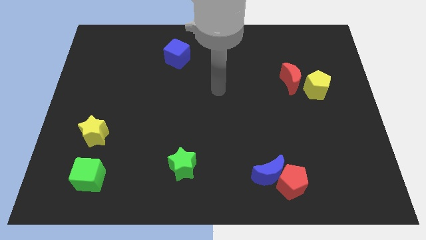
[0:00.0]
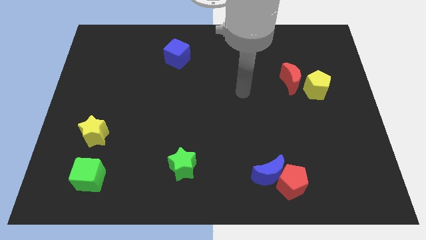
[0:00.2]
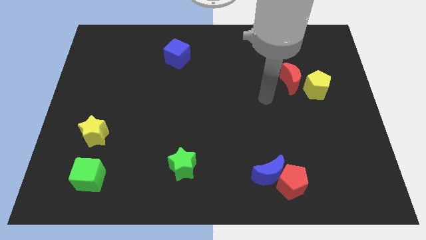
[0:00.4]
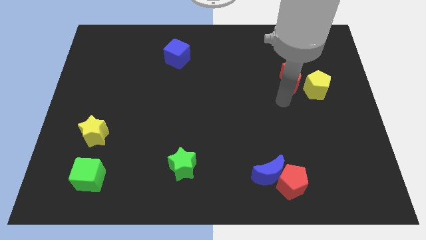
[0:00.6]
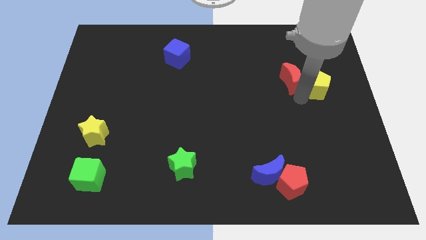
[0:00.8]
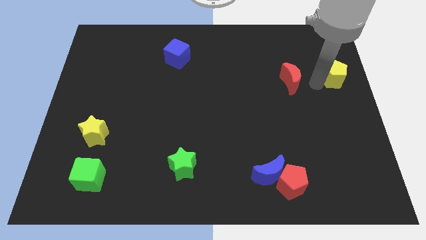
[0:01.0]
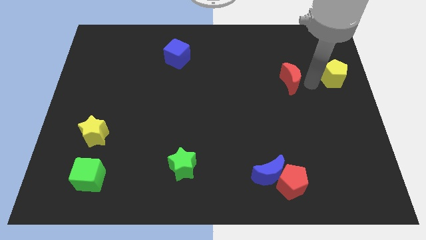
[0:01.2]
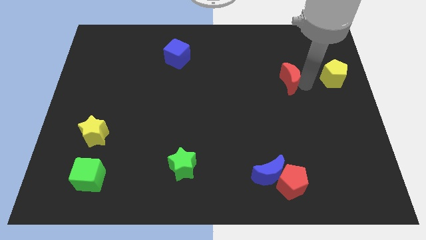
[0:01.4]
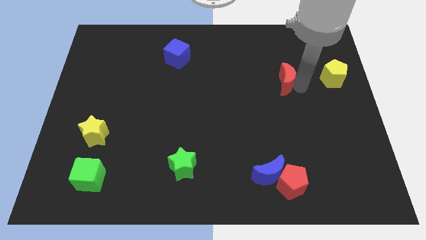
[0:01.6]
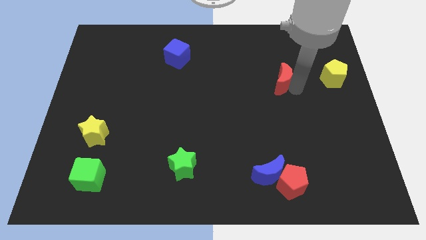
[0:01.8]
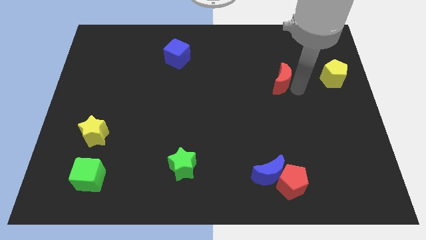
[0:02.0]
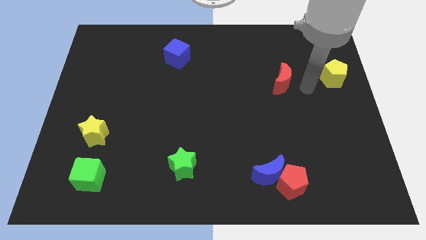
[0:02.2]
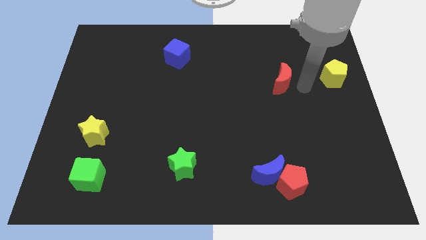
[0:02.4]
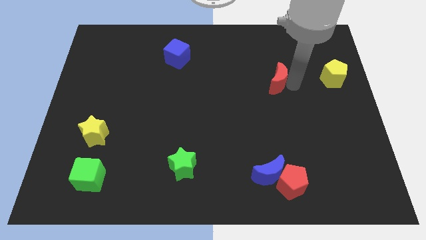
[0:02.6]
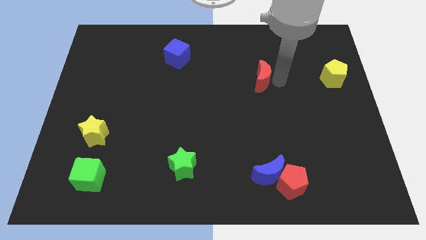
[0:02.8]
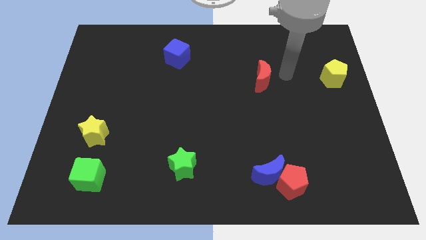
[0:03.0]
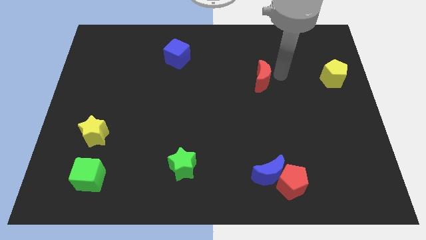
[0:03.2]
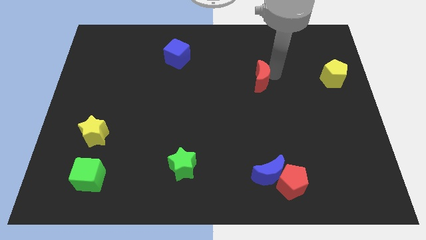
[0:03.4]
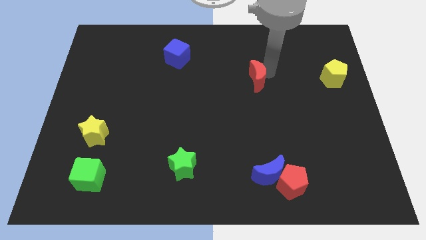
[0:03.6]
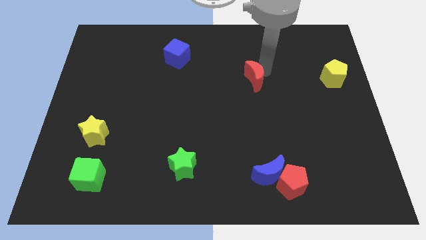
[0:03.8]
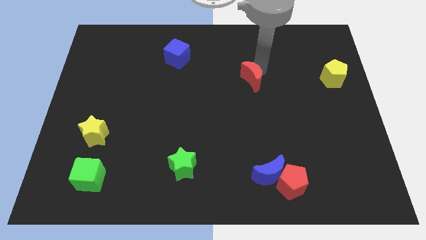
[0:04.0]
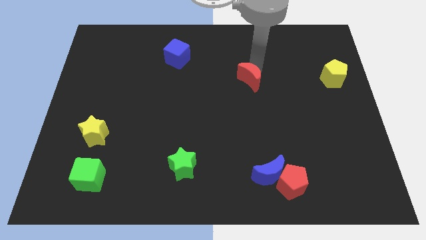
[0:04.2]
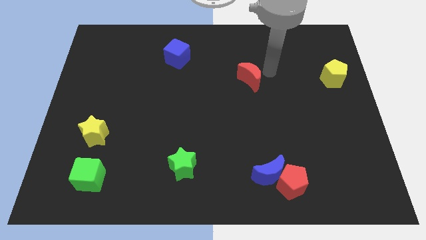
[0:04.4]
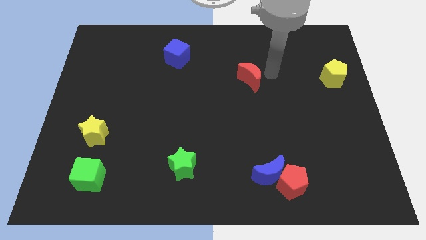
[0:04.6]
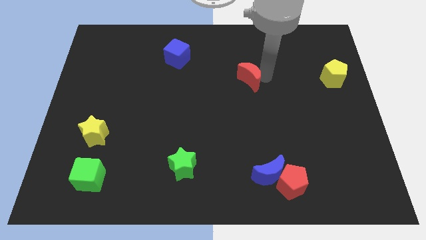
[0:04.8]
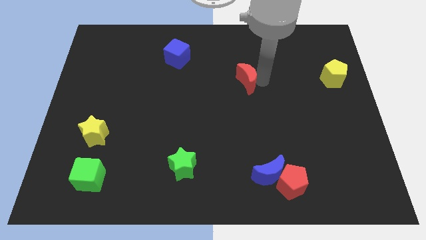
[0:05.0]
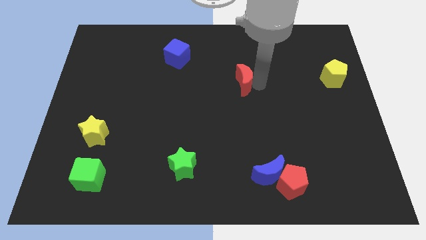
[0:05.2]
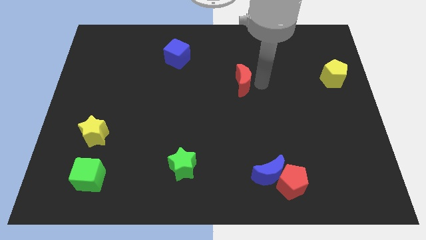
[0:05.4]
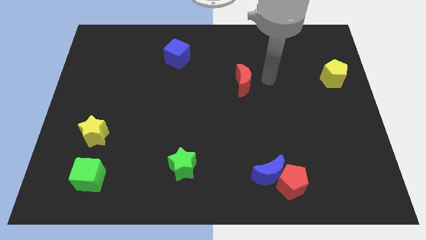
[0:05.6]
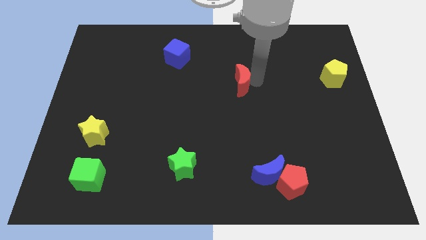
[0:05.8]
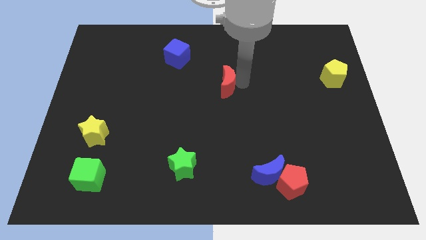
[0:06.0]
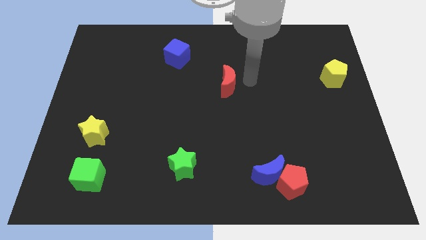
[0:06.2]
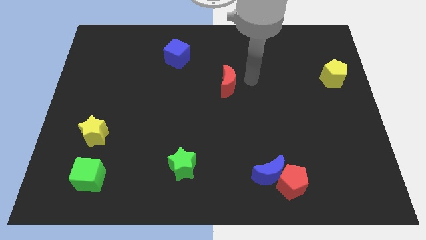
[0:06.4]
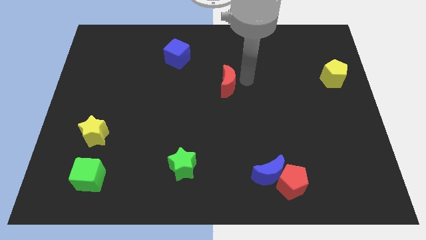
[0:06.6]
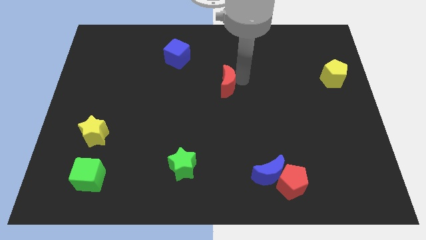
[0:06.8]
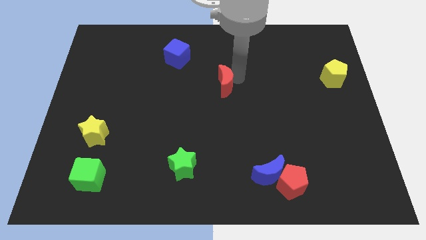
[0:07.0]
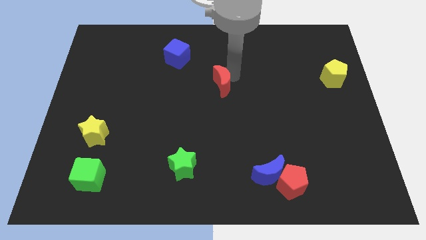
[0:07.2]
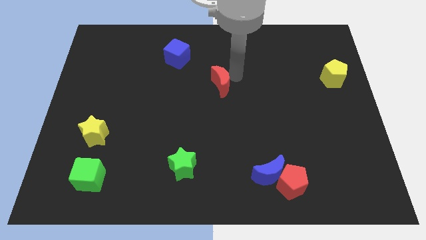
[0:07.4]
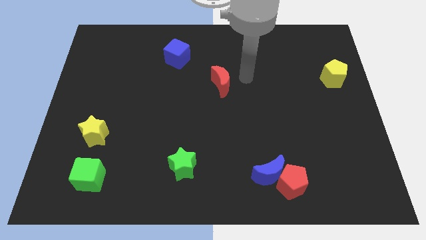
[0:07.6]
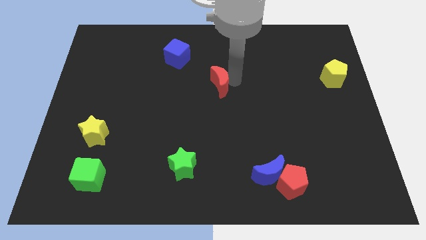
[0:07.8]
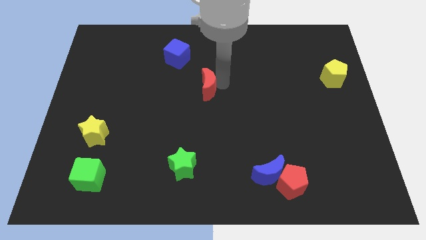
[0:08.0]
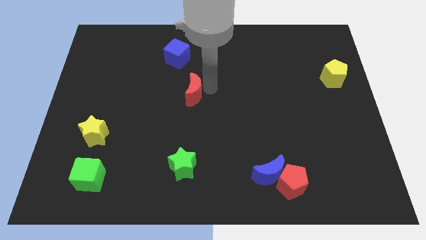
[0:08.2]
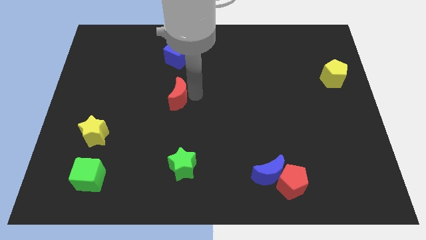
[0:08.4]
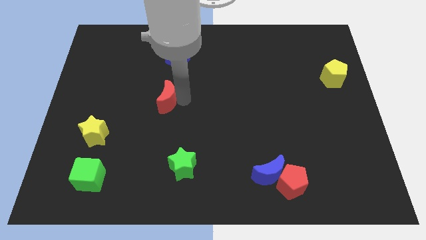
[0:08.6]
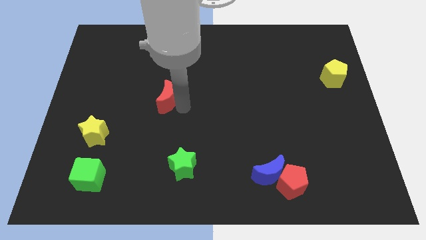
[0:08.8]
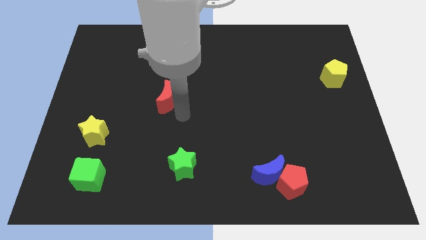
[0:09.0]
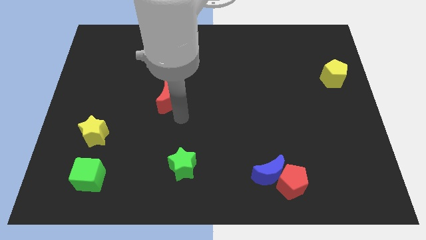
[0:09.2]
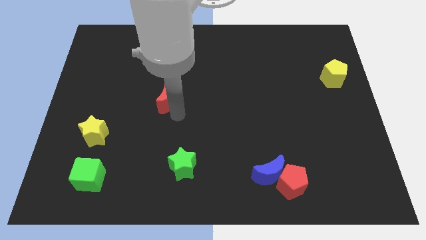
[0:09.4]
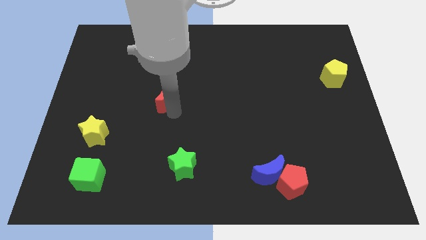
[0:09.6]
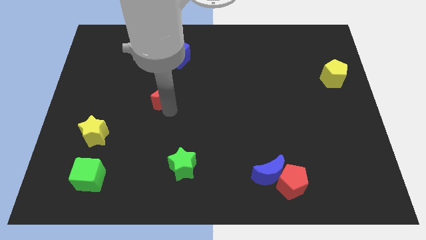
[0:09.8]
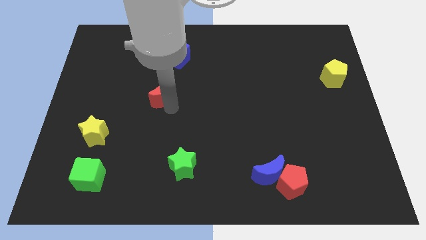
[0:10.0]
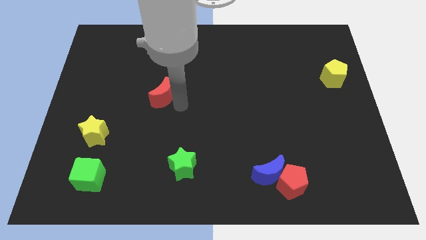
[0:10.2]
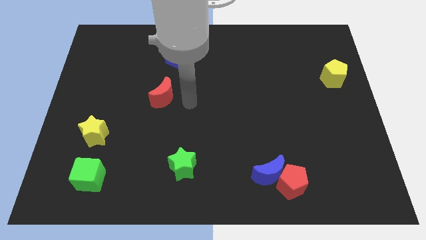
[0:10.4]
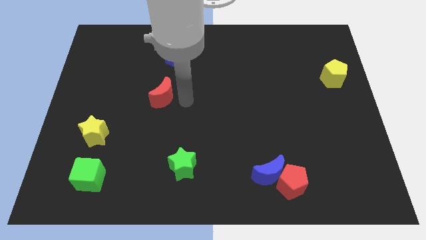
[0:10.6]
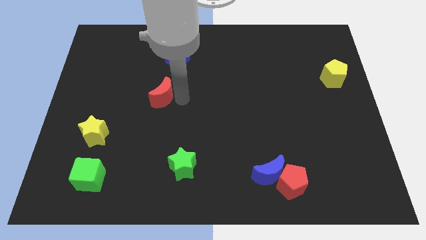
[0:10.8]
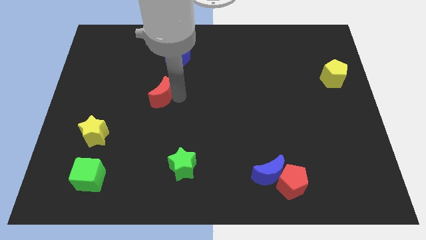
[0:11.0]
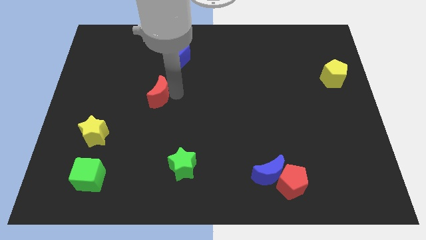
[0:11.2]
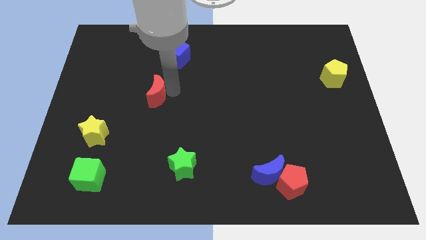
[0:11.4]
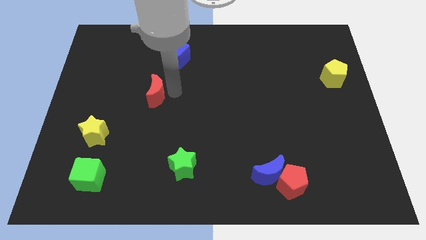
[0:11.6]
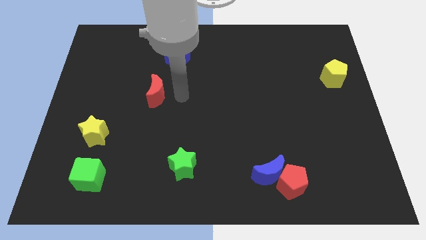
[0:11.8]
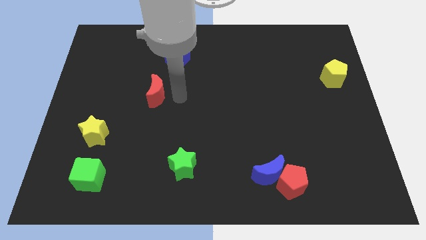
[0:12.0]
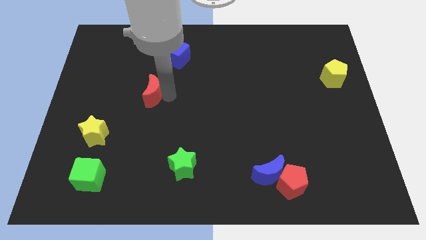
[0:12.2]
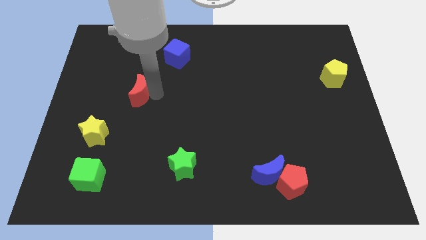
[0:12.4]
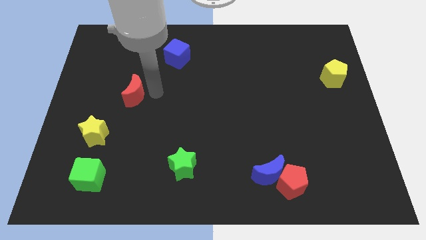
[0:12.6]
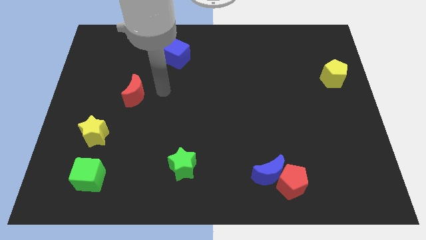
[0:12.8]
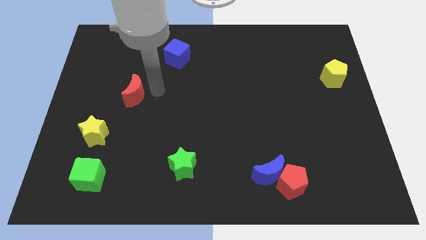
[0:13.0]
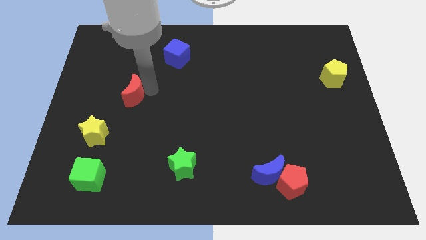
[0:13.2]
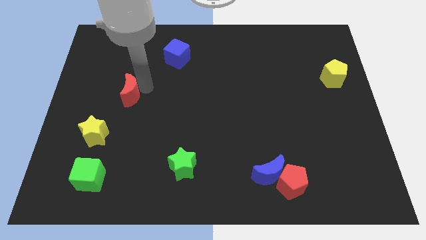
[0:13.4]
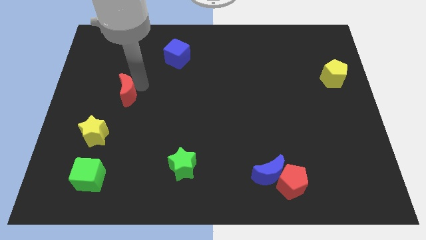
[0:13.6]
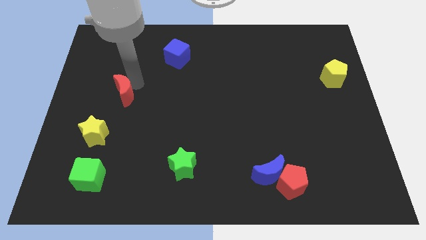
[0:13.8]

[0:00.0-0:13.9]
push the red moon to the top side of the yellow star
